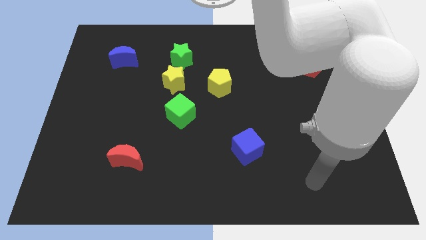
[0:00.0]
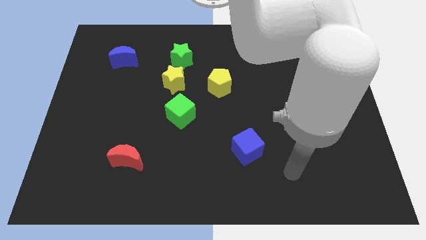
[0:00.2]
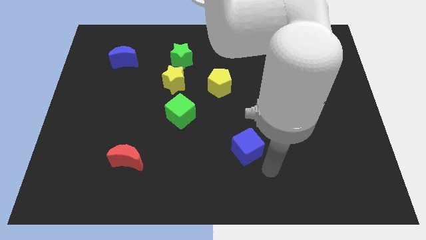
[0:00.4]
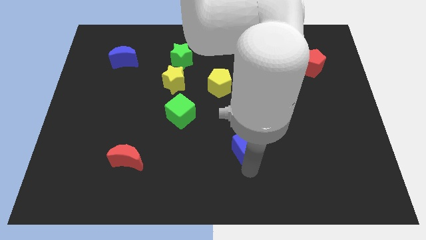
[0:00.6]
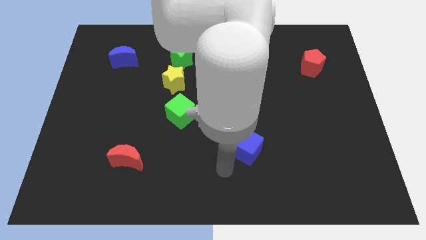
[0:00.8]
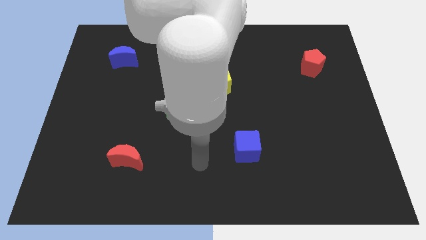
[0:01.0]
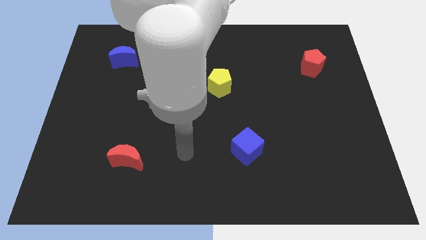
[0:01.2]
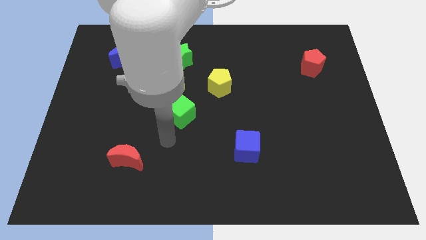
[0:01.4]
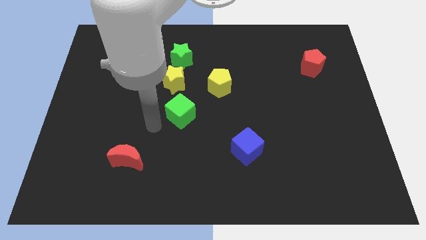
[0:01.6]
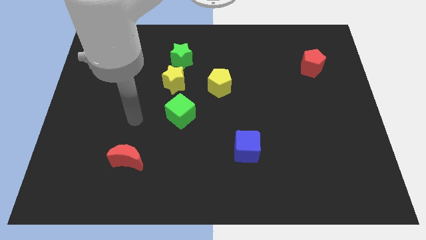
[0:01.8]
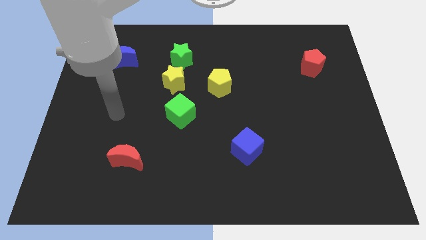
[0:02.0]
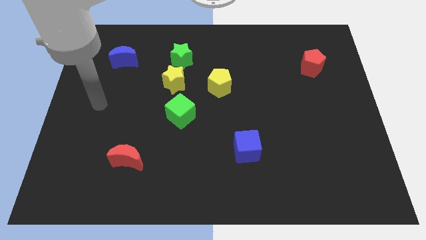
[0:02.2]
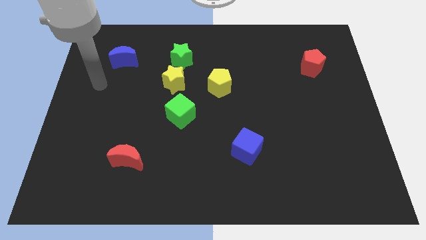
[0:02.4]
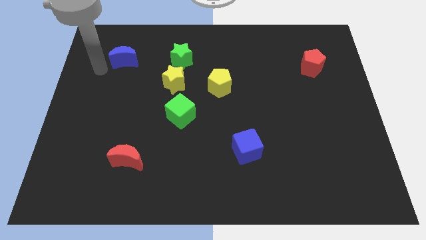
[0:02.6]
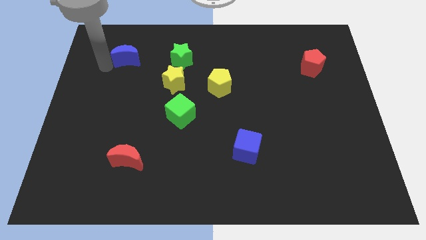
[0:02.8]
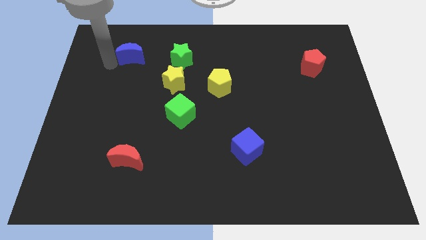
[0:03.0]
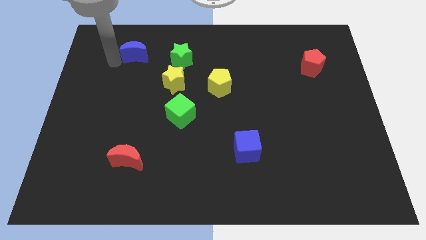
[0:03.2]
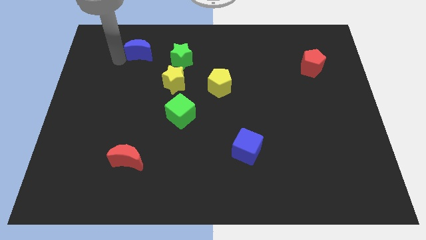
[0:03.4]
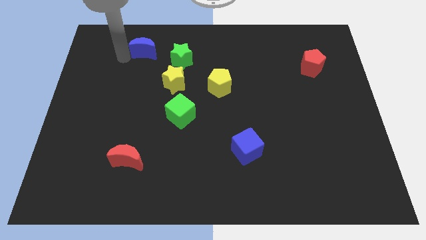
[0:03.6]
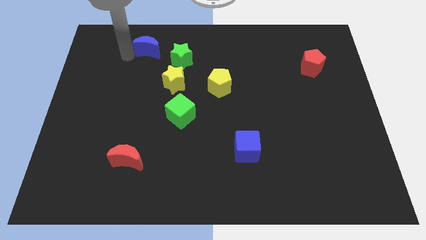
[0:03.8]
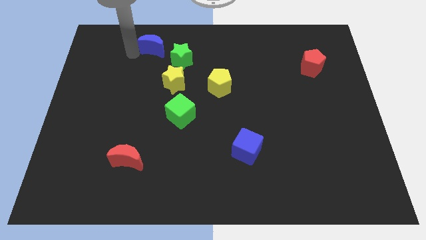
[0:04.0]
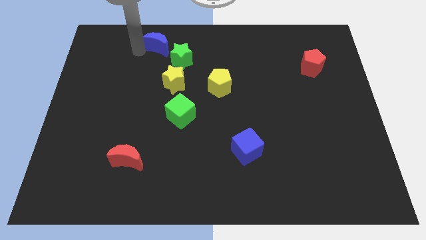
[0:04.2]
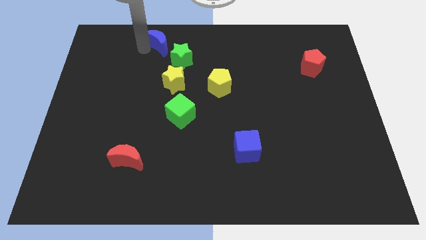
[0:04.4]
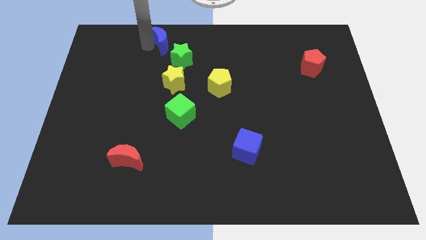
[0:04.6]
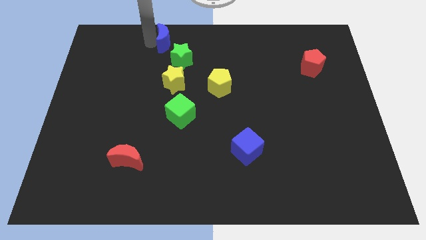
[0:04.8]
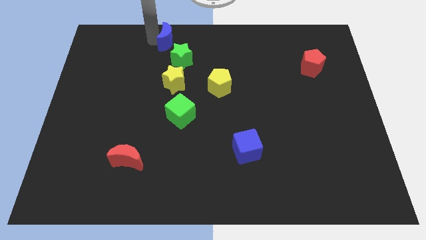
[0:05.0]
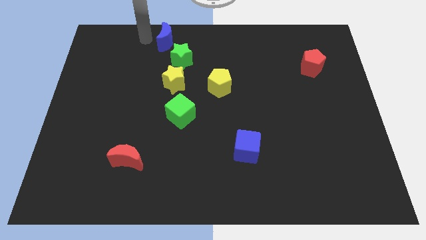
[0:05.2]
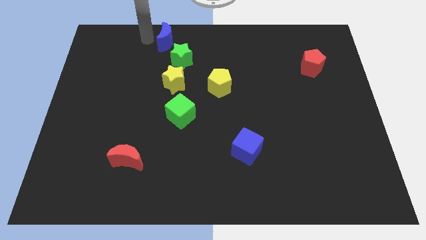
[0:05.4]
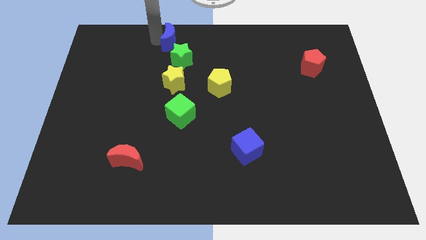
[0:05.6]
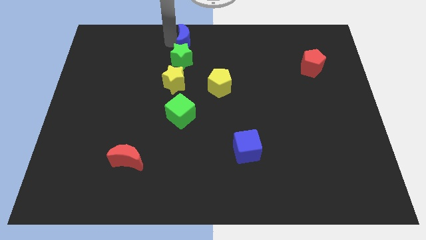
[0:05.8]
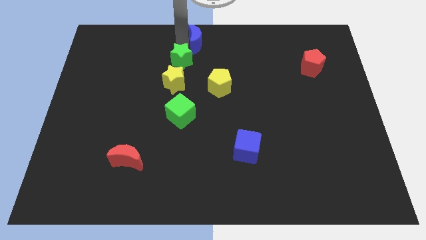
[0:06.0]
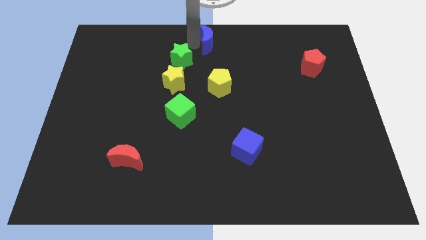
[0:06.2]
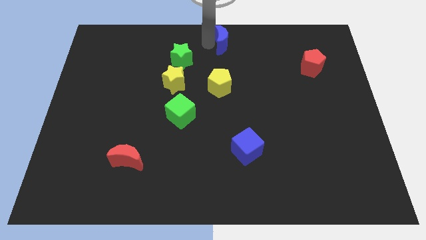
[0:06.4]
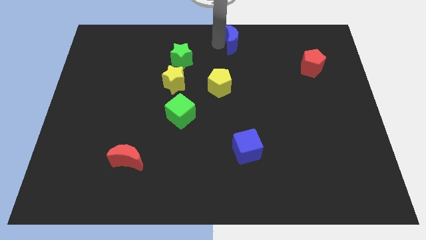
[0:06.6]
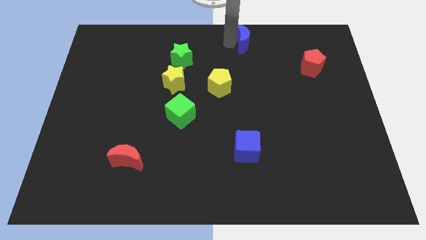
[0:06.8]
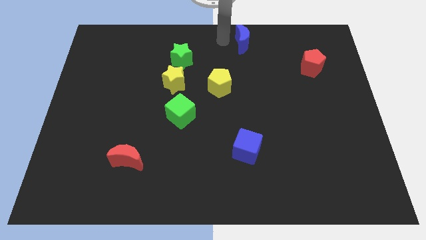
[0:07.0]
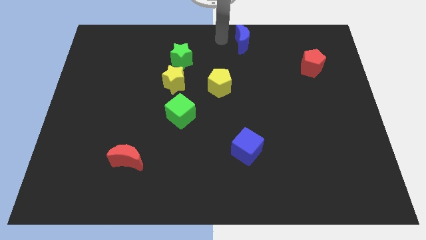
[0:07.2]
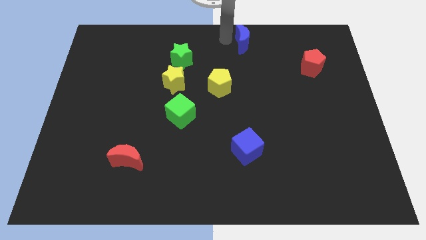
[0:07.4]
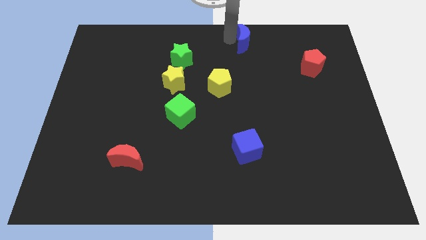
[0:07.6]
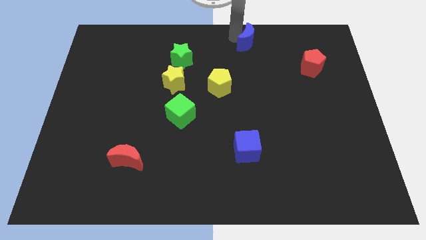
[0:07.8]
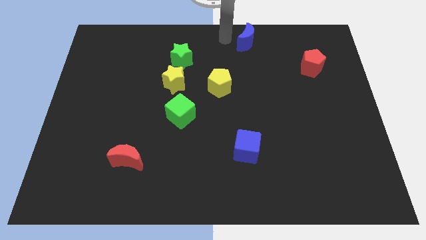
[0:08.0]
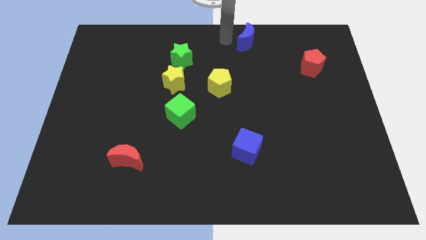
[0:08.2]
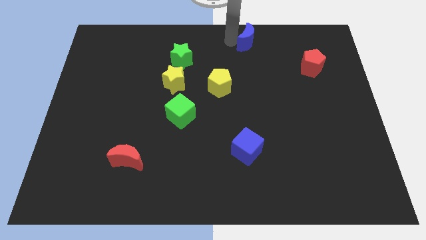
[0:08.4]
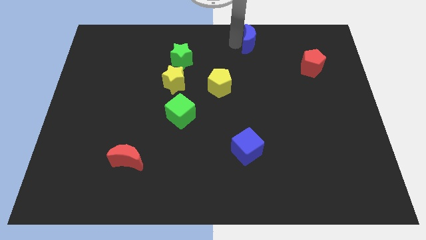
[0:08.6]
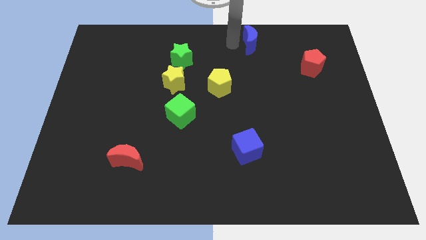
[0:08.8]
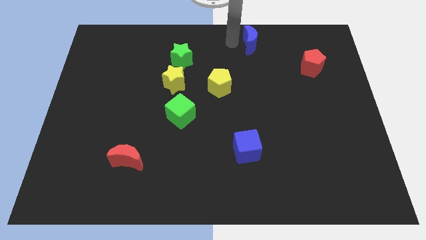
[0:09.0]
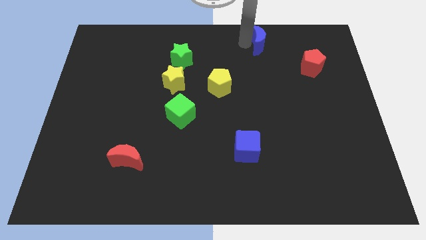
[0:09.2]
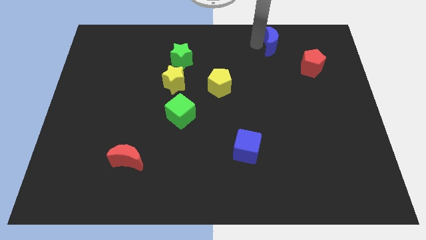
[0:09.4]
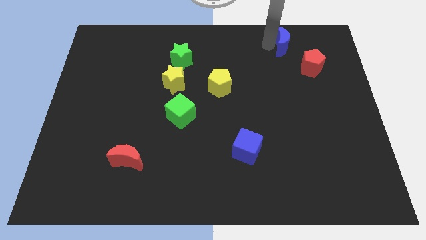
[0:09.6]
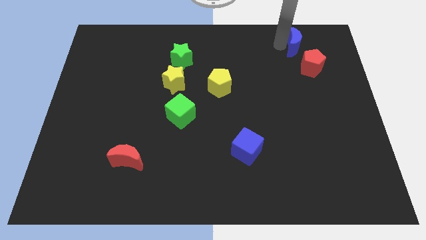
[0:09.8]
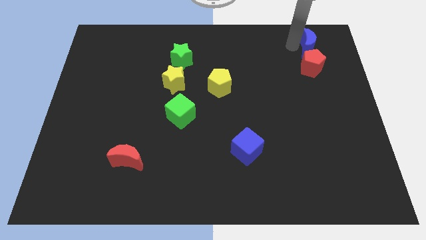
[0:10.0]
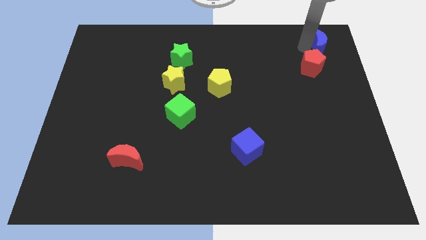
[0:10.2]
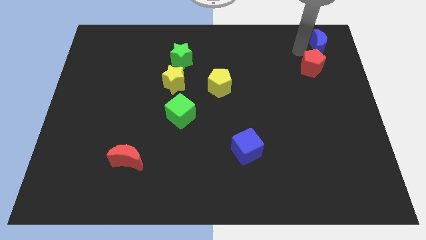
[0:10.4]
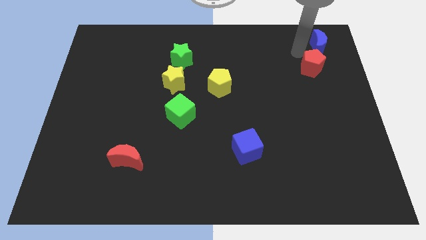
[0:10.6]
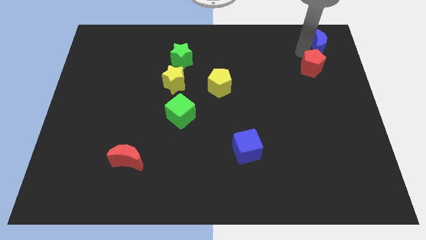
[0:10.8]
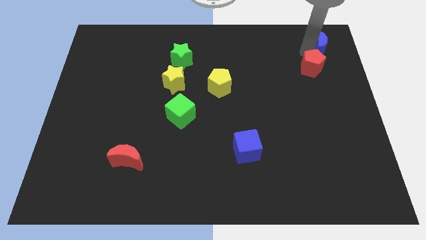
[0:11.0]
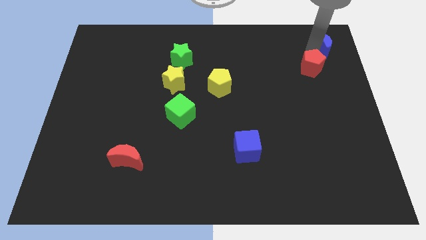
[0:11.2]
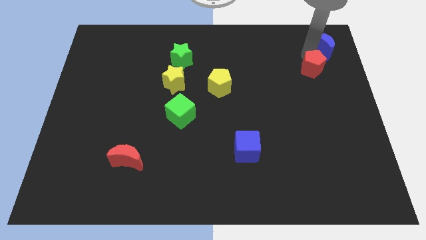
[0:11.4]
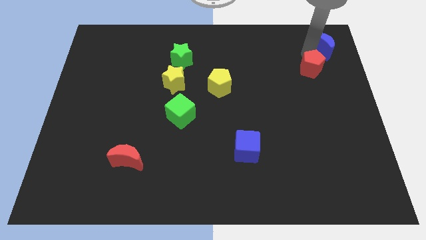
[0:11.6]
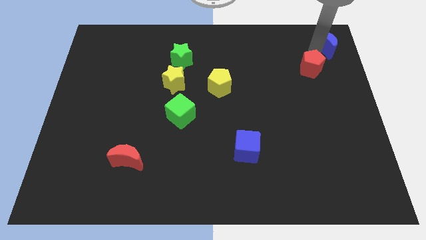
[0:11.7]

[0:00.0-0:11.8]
move the blue moon to the top right

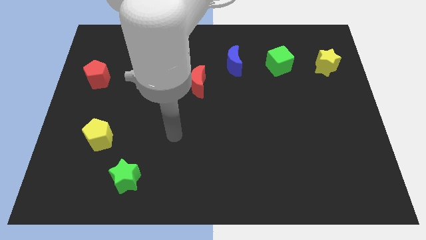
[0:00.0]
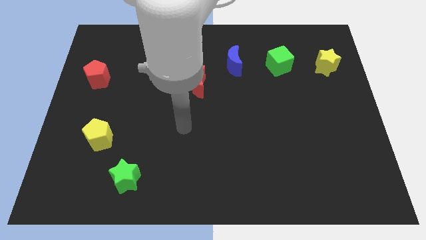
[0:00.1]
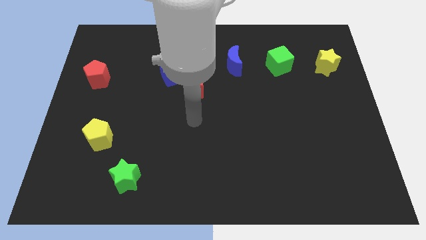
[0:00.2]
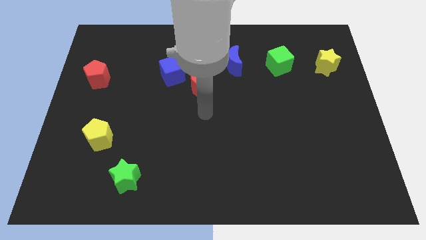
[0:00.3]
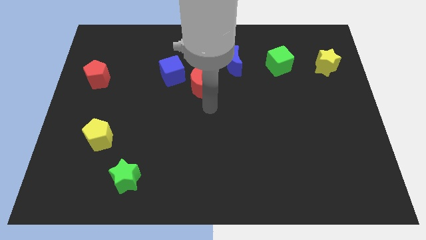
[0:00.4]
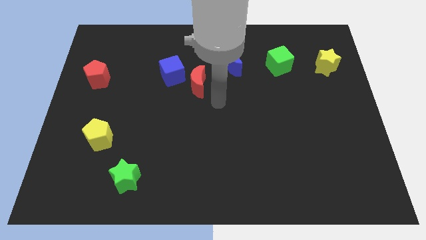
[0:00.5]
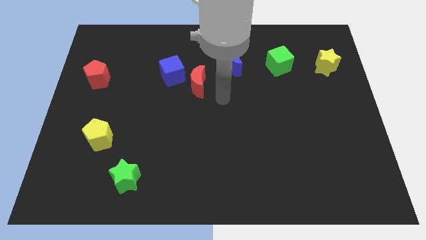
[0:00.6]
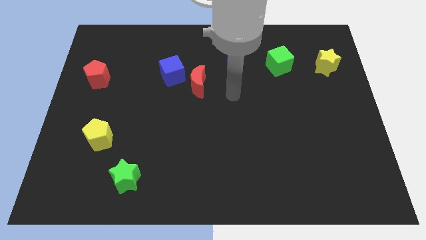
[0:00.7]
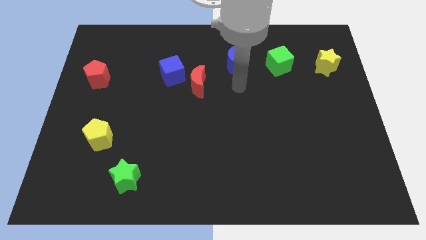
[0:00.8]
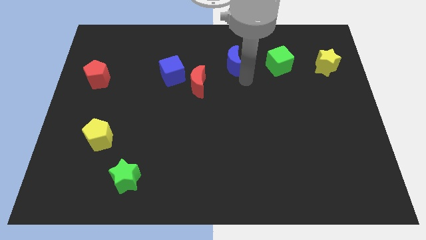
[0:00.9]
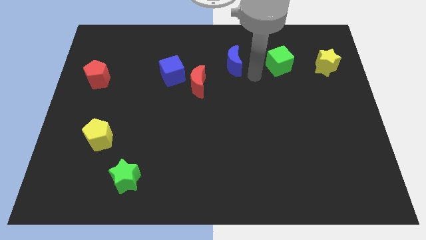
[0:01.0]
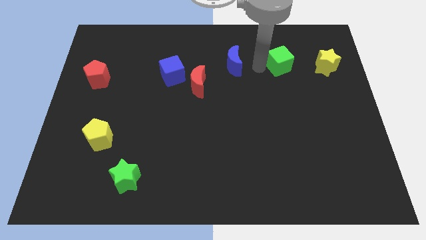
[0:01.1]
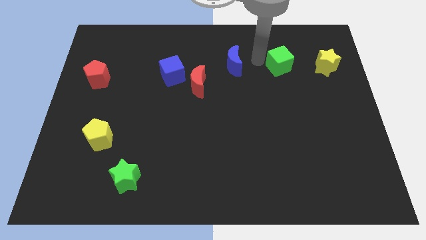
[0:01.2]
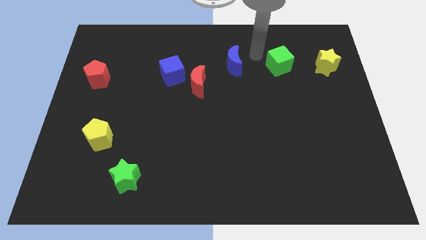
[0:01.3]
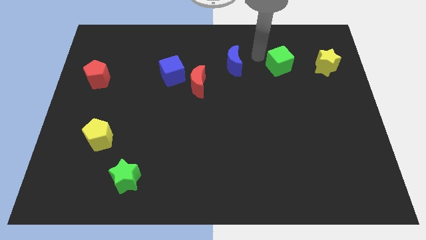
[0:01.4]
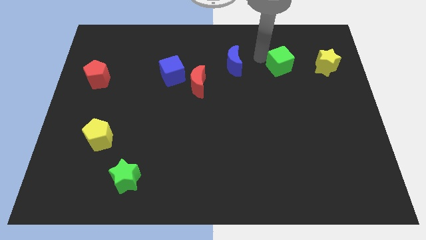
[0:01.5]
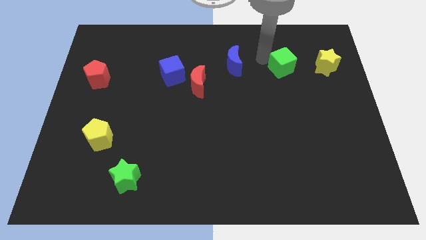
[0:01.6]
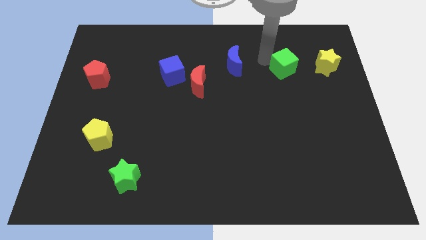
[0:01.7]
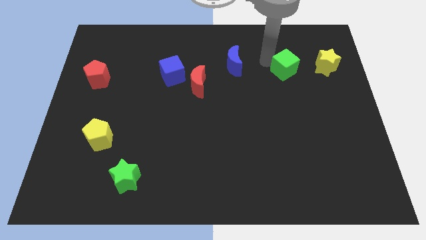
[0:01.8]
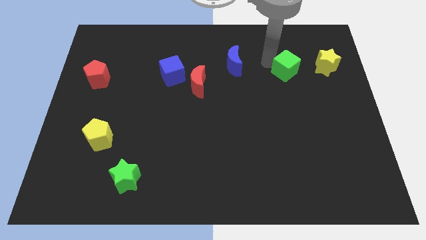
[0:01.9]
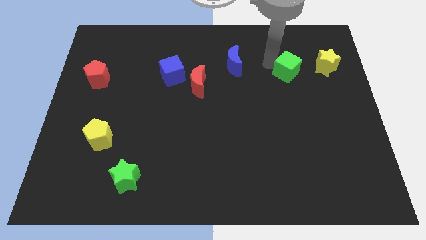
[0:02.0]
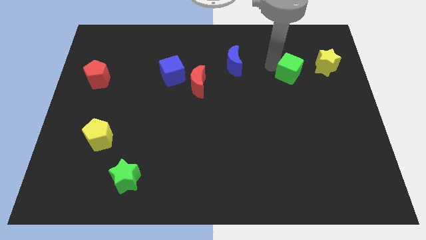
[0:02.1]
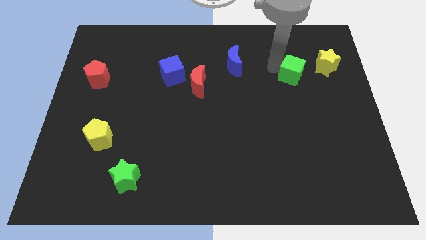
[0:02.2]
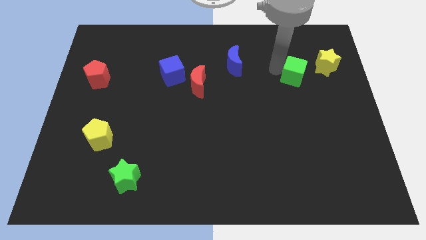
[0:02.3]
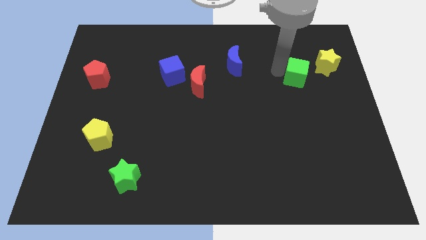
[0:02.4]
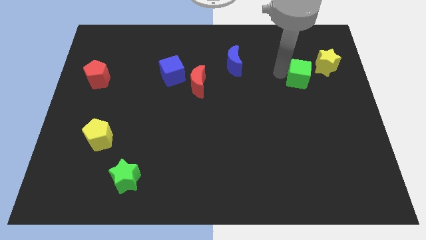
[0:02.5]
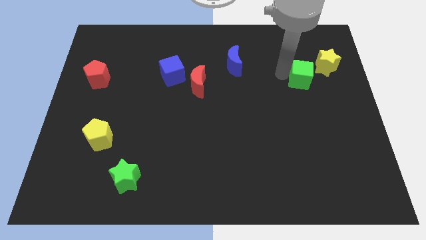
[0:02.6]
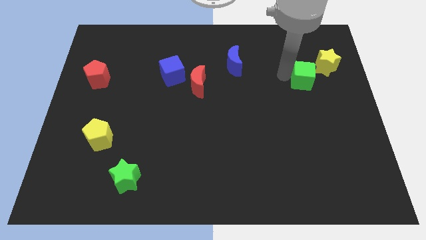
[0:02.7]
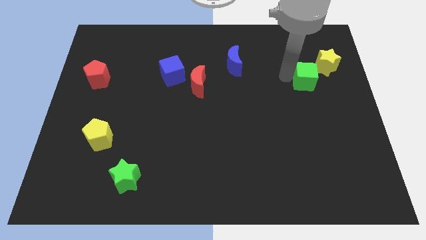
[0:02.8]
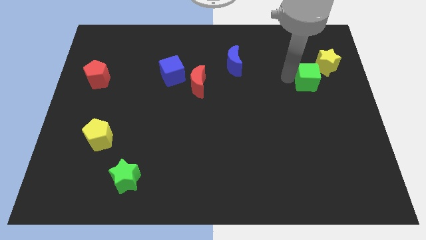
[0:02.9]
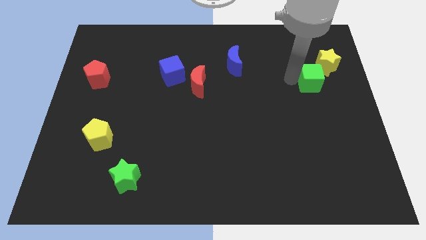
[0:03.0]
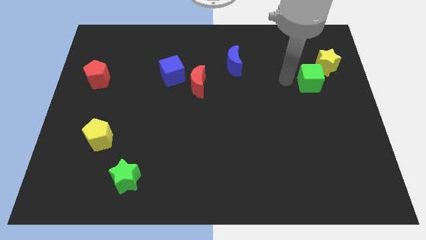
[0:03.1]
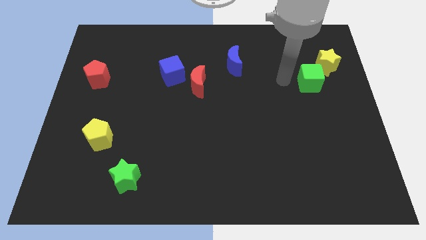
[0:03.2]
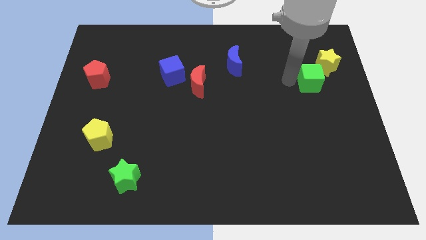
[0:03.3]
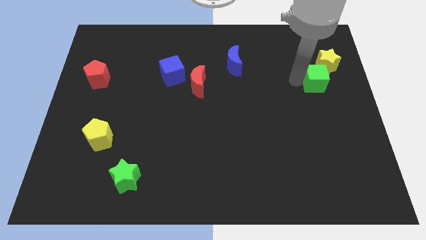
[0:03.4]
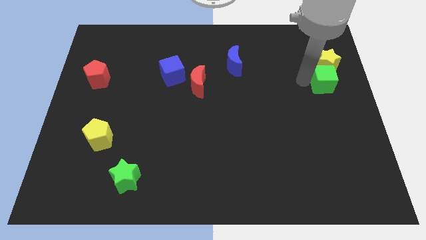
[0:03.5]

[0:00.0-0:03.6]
push the green cube to the right side
